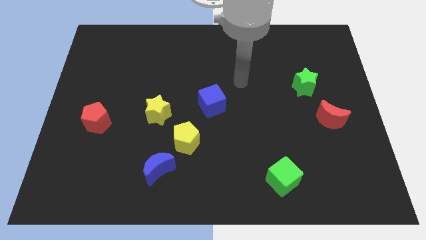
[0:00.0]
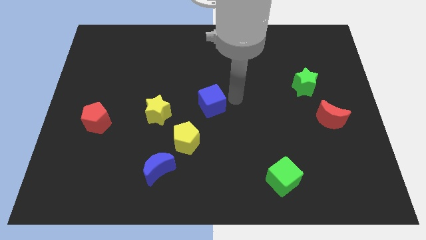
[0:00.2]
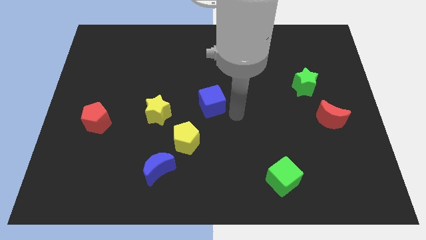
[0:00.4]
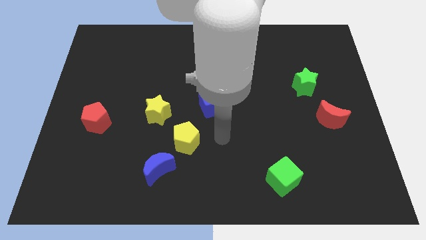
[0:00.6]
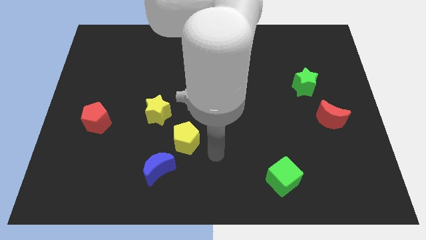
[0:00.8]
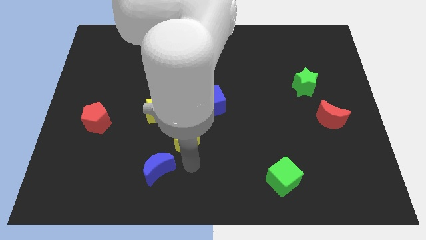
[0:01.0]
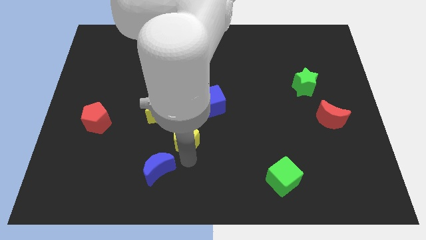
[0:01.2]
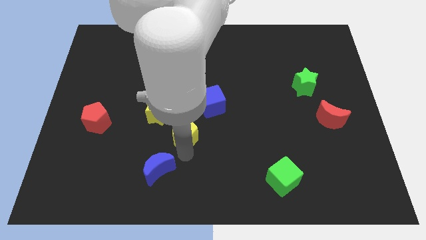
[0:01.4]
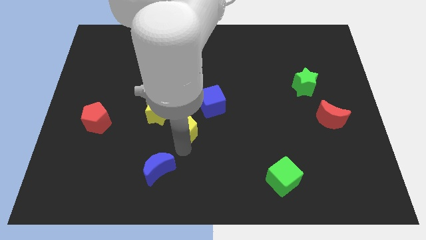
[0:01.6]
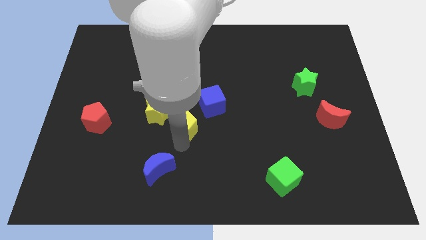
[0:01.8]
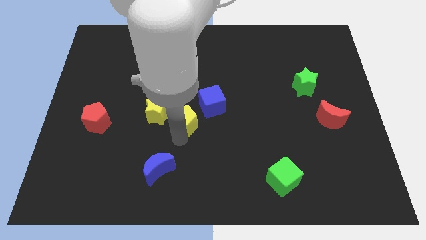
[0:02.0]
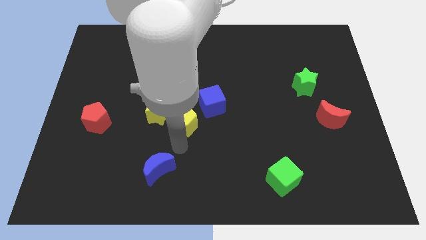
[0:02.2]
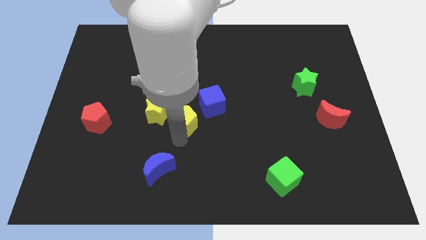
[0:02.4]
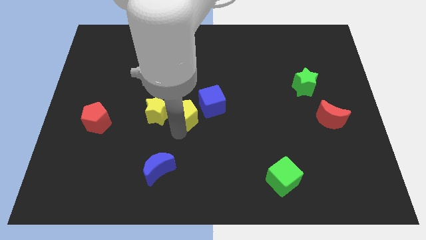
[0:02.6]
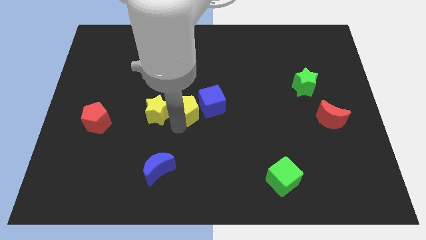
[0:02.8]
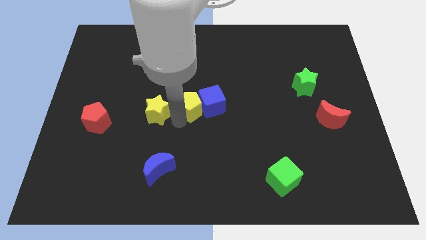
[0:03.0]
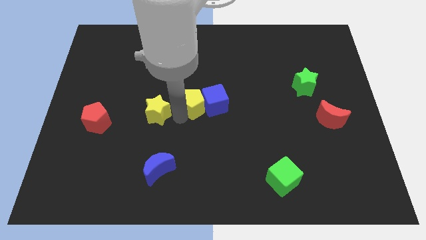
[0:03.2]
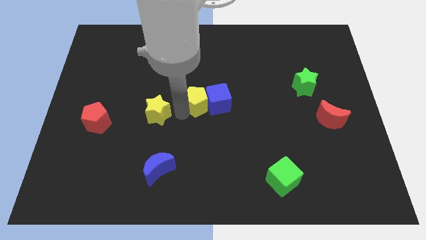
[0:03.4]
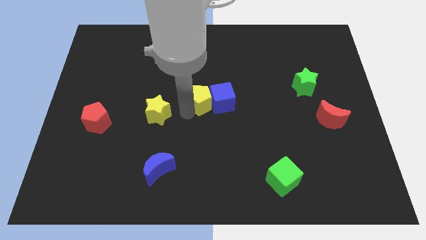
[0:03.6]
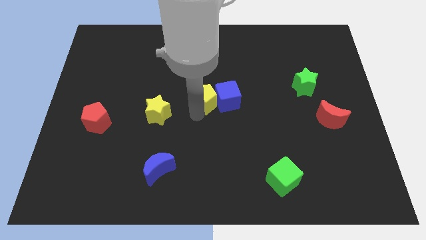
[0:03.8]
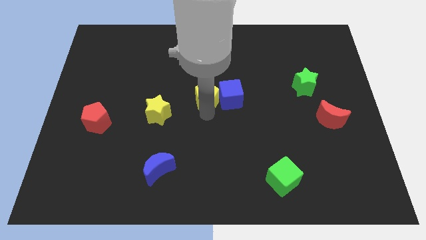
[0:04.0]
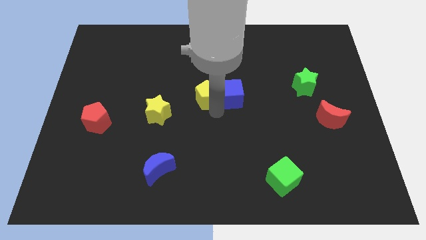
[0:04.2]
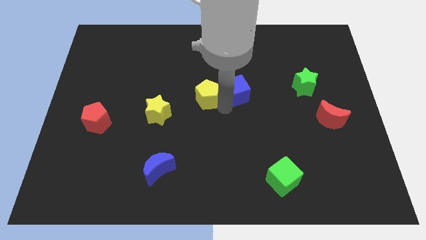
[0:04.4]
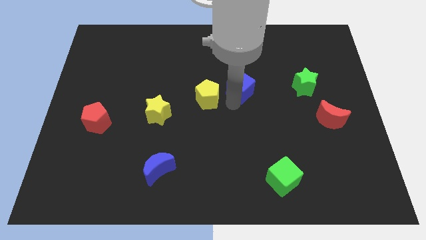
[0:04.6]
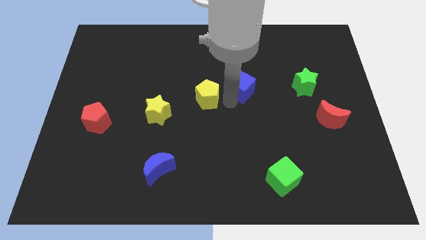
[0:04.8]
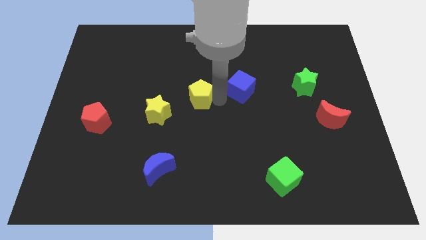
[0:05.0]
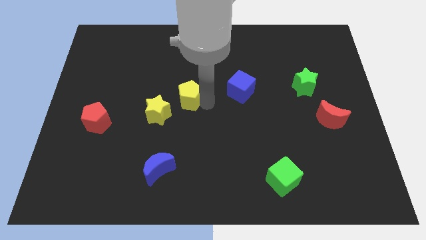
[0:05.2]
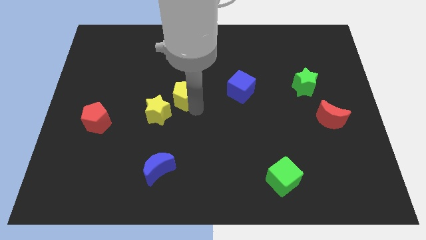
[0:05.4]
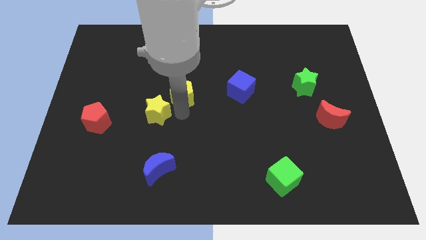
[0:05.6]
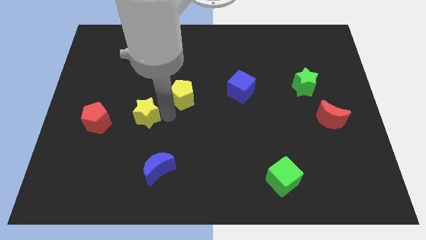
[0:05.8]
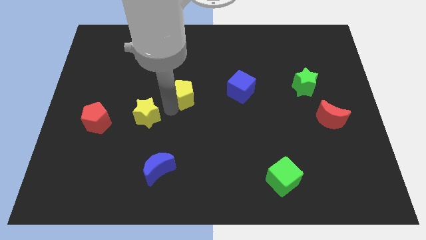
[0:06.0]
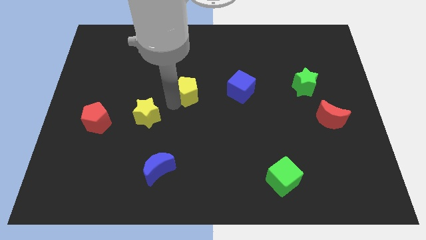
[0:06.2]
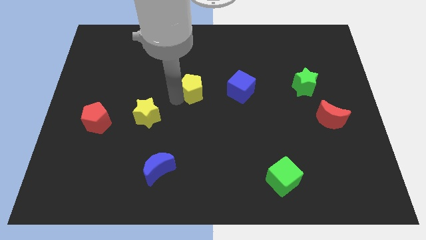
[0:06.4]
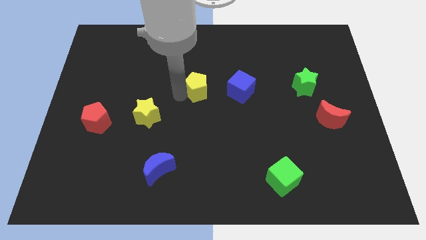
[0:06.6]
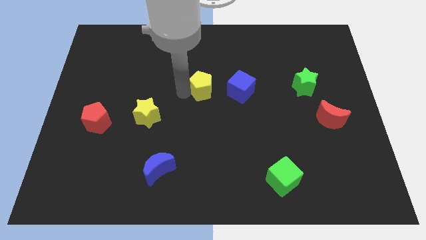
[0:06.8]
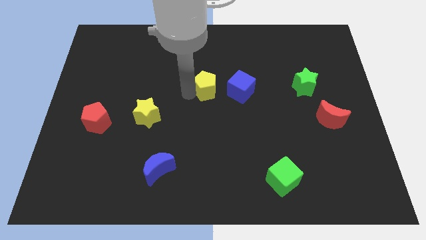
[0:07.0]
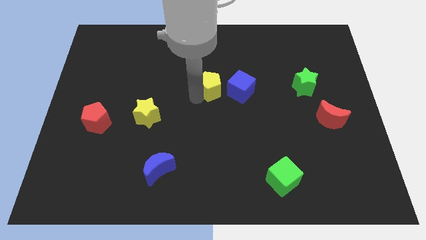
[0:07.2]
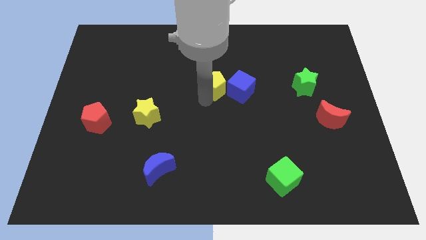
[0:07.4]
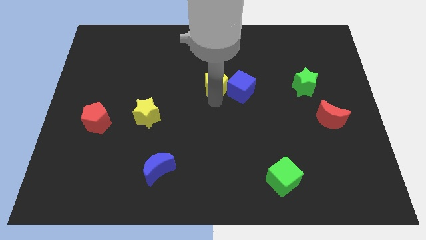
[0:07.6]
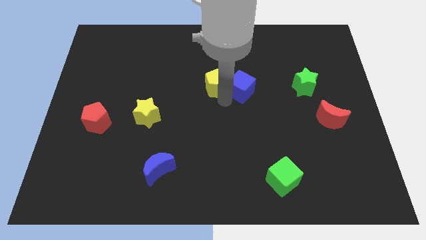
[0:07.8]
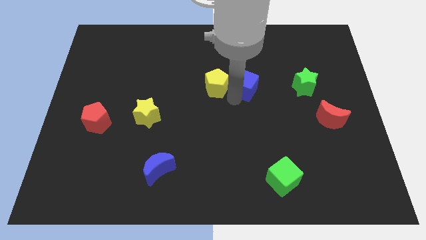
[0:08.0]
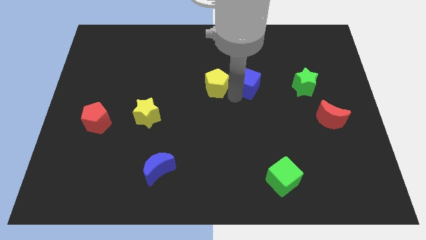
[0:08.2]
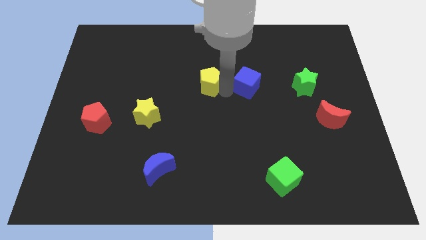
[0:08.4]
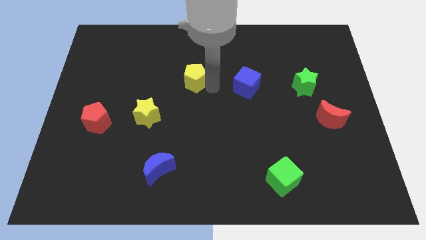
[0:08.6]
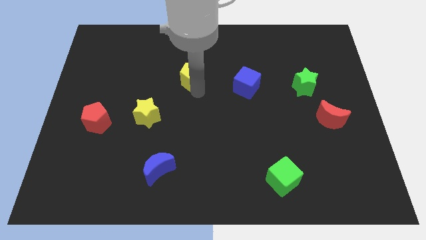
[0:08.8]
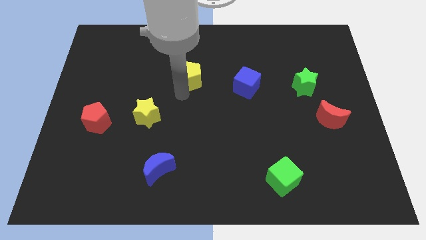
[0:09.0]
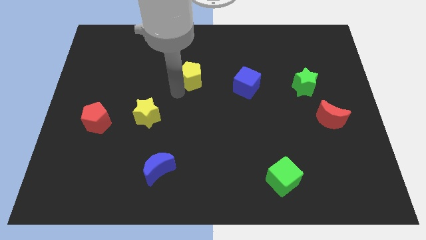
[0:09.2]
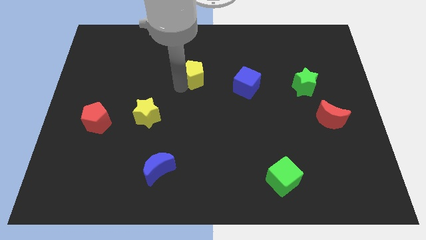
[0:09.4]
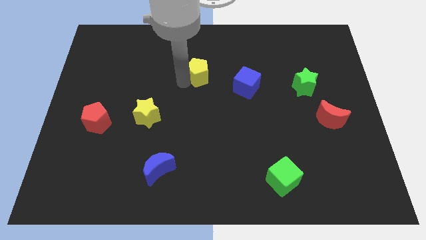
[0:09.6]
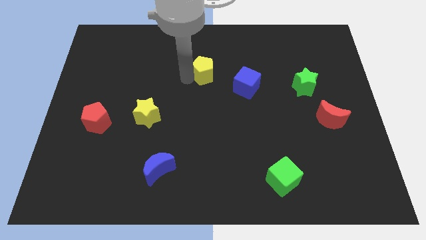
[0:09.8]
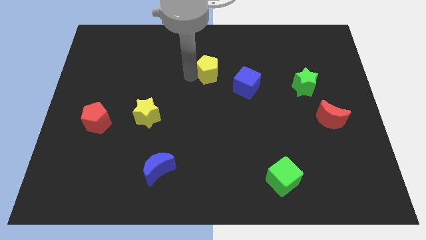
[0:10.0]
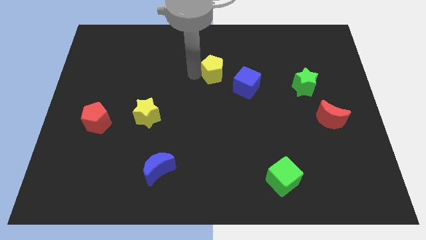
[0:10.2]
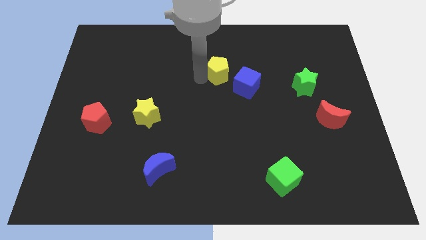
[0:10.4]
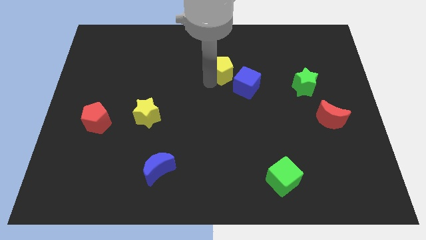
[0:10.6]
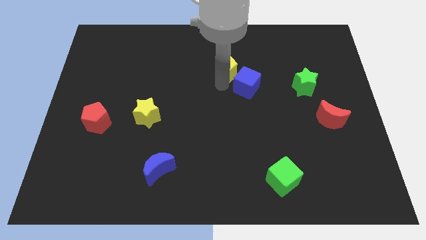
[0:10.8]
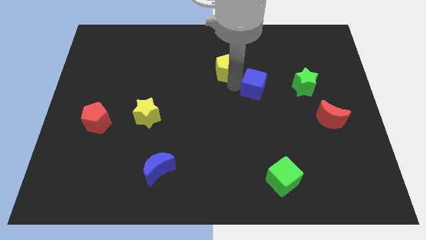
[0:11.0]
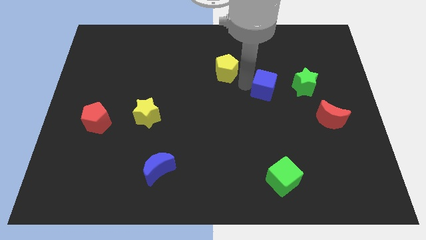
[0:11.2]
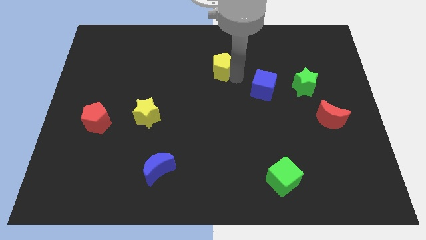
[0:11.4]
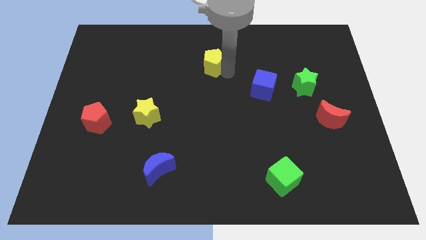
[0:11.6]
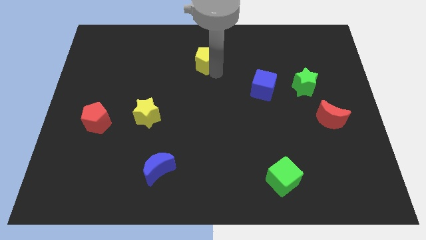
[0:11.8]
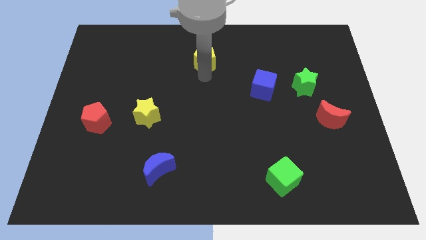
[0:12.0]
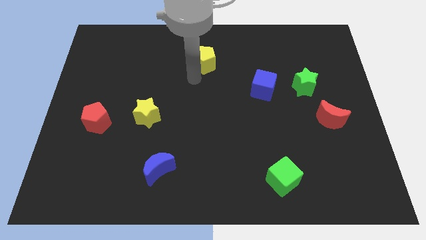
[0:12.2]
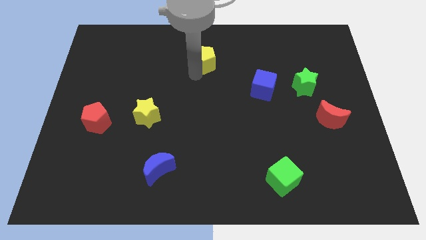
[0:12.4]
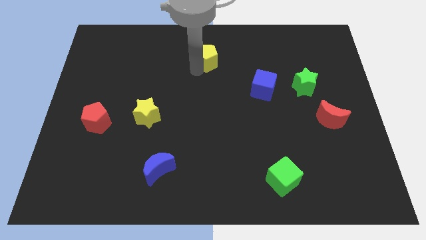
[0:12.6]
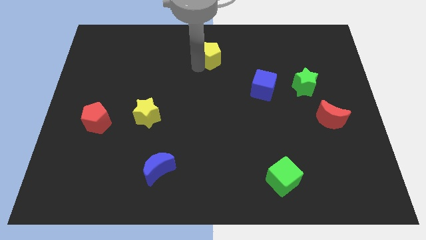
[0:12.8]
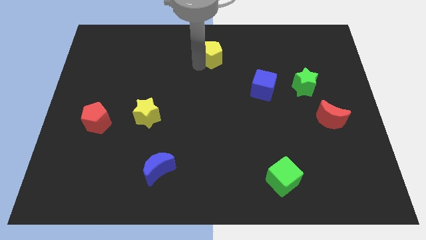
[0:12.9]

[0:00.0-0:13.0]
put the yellow pentagon to the top
